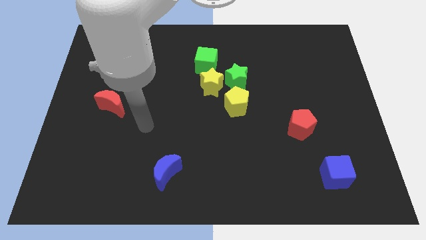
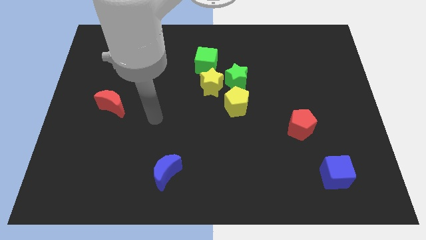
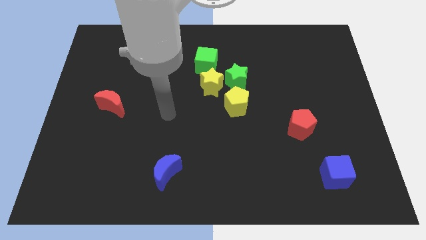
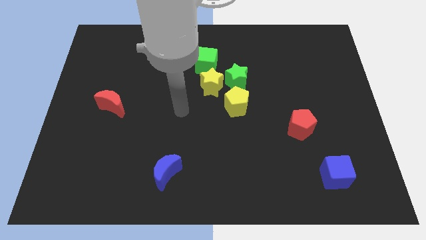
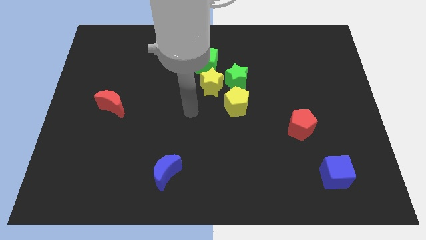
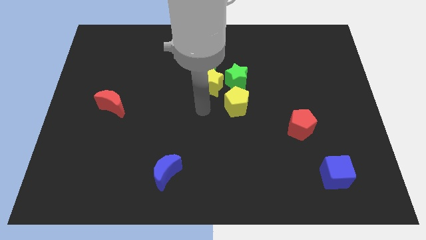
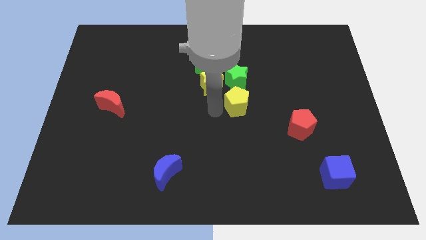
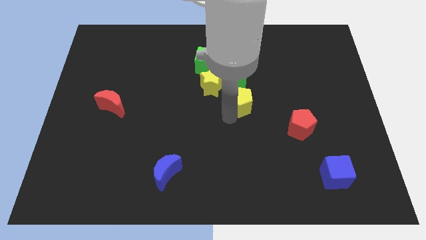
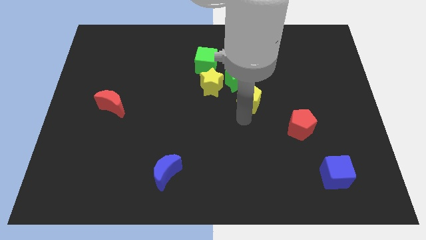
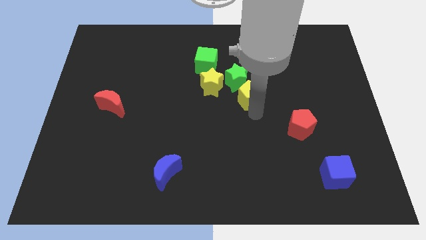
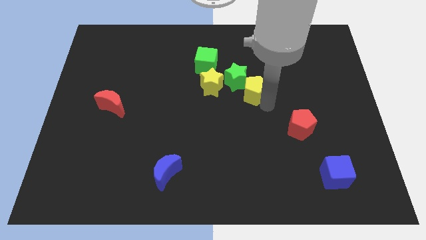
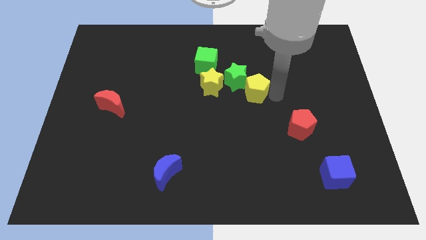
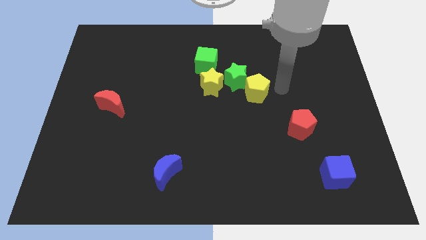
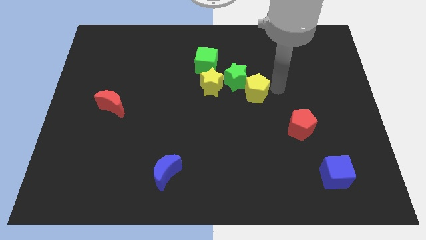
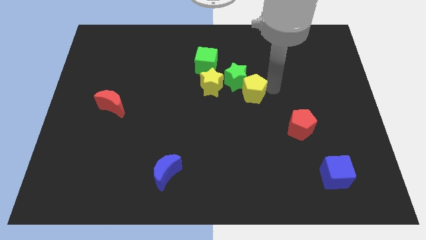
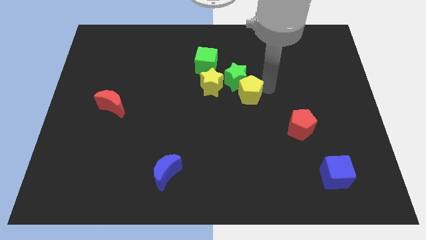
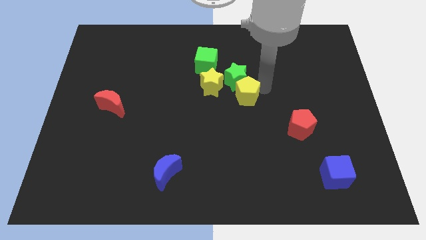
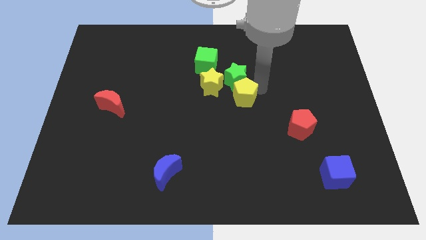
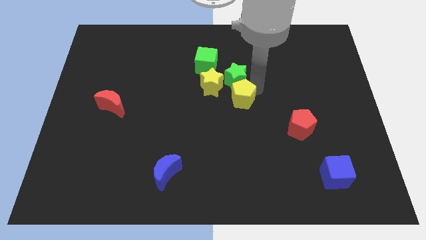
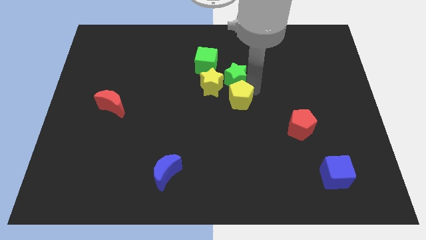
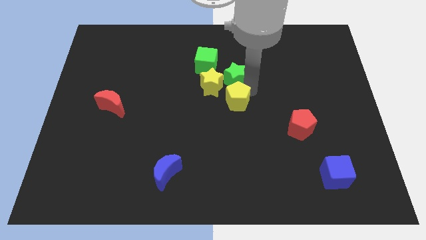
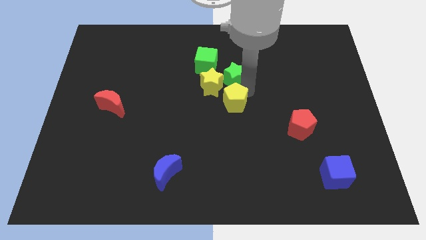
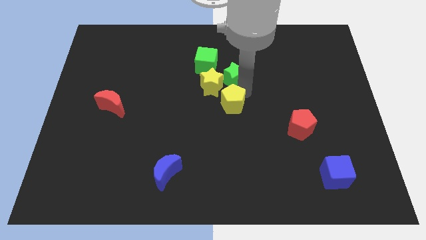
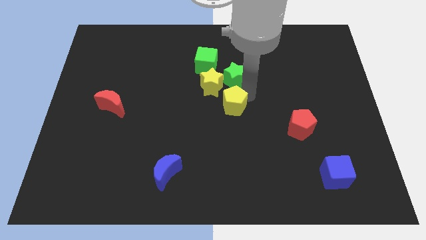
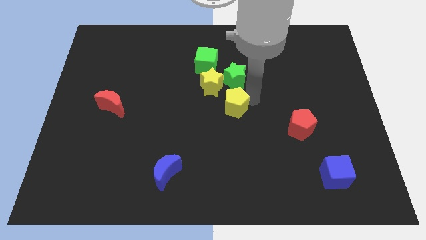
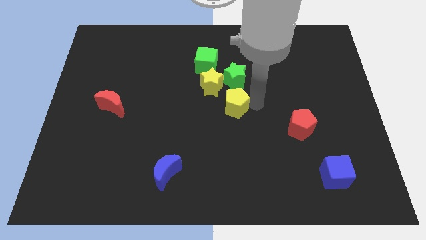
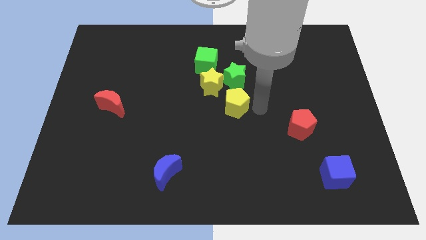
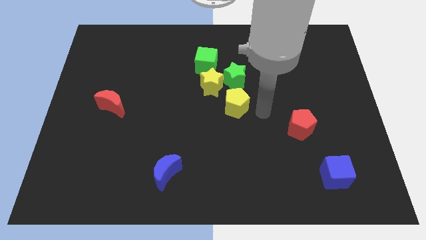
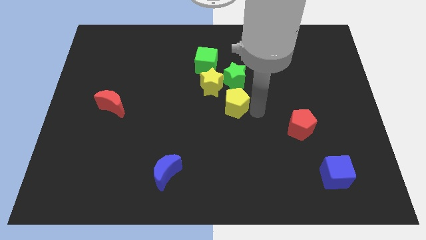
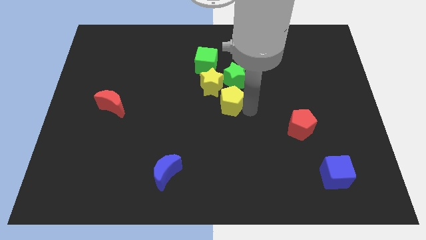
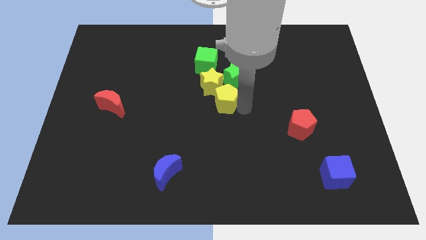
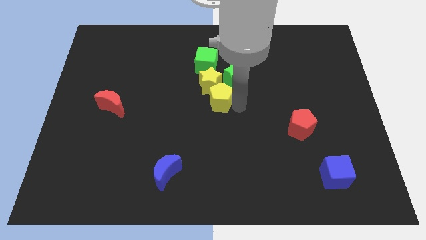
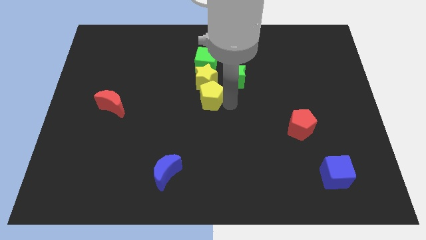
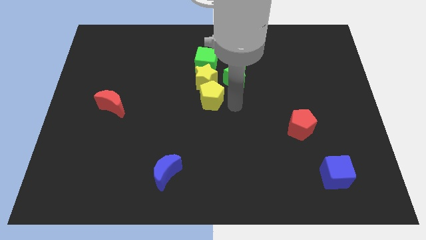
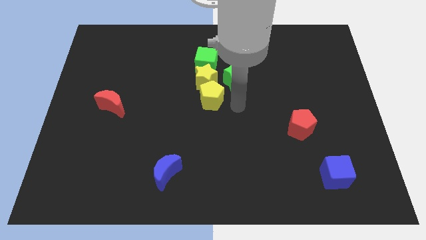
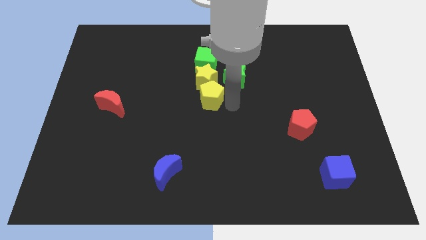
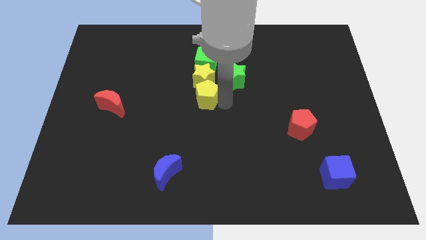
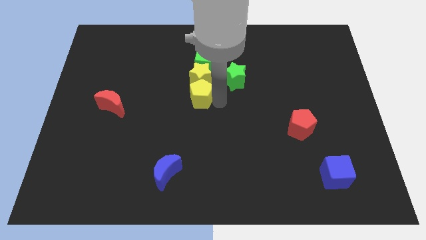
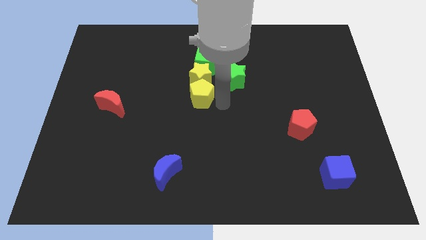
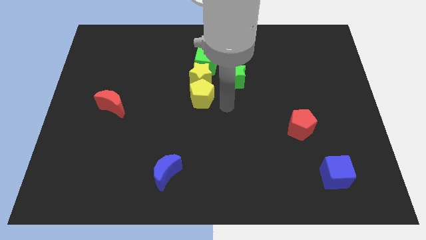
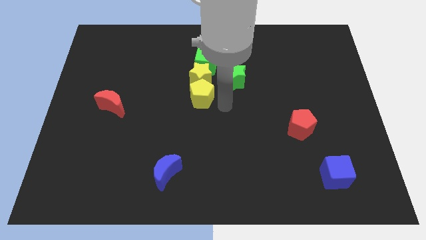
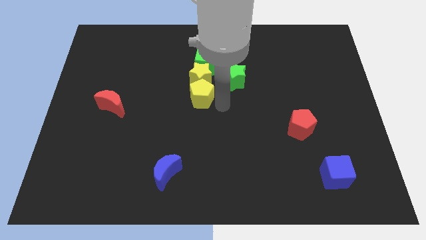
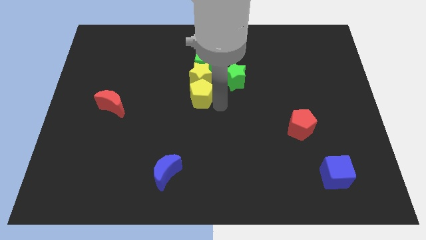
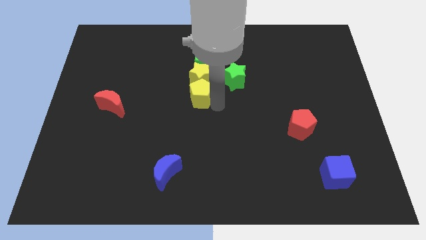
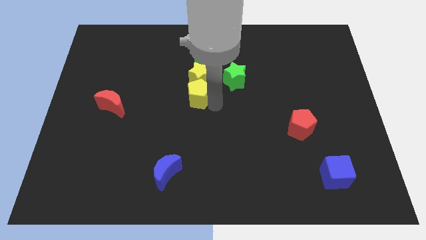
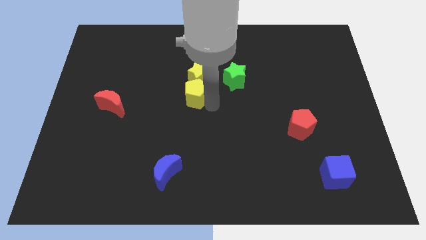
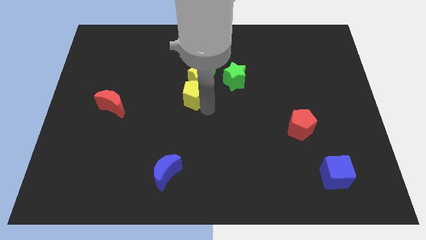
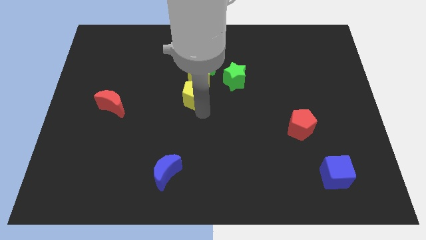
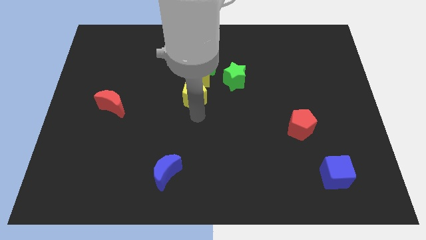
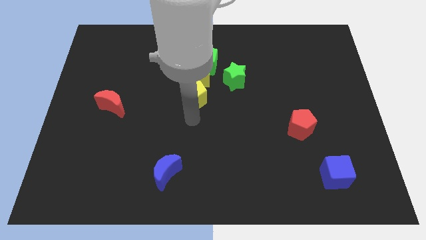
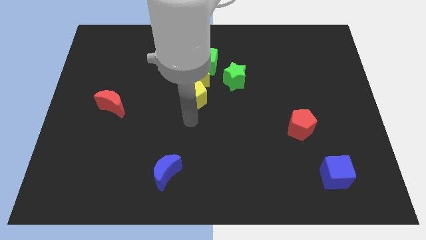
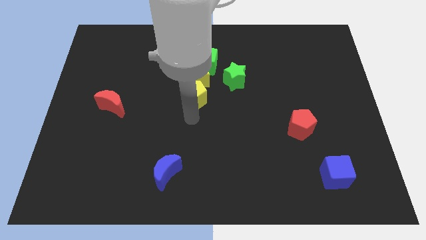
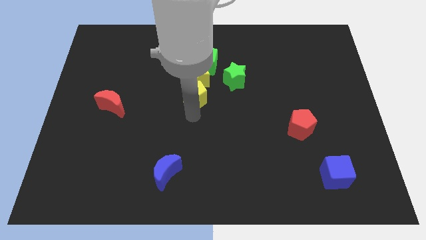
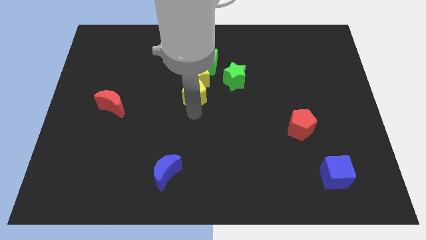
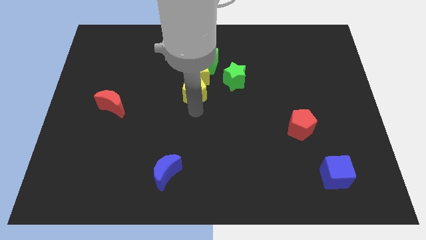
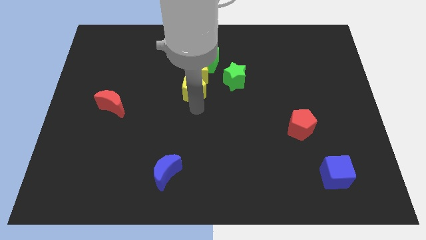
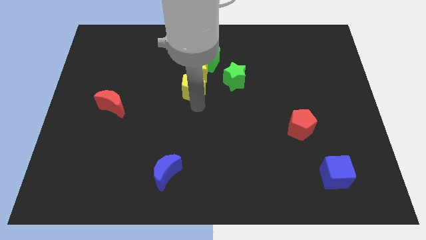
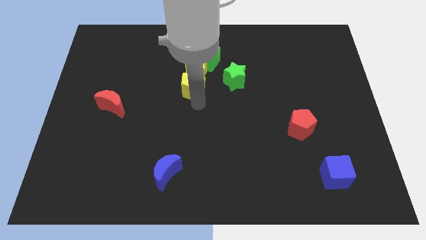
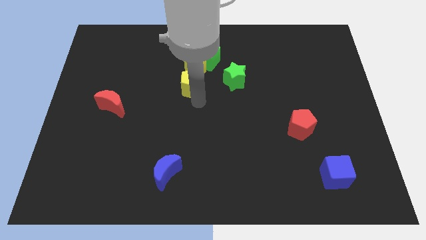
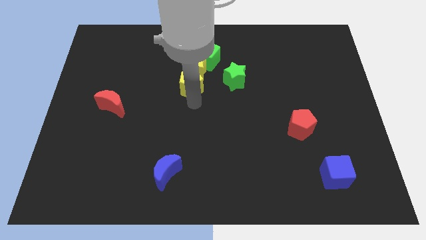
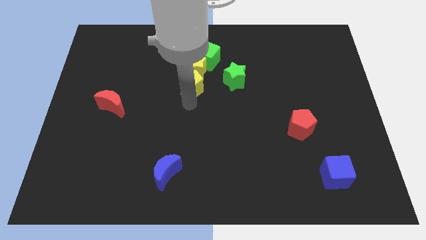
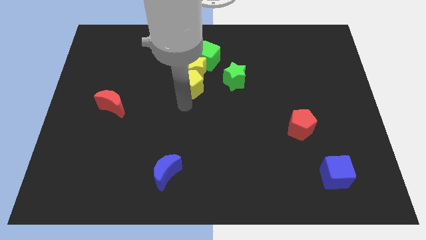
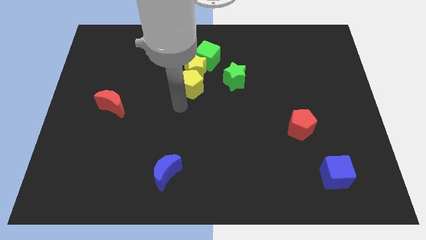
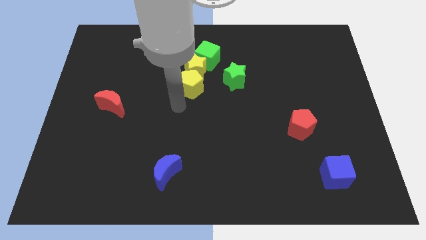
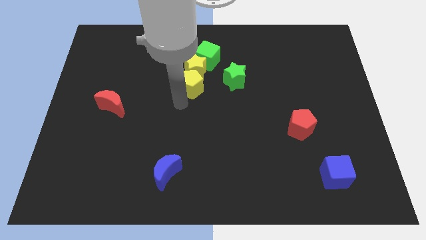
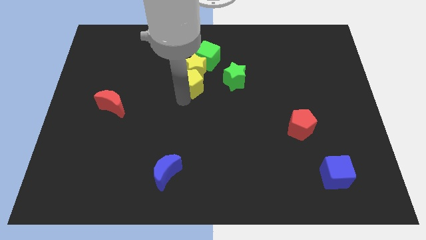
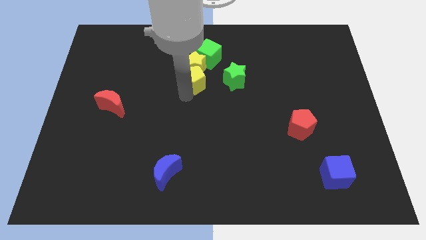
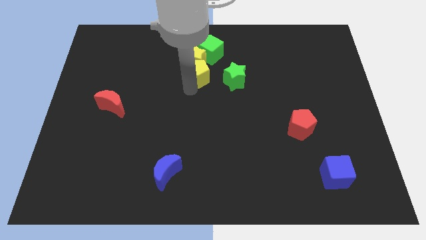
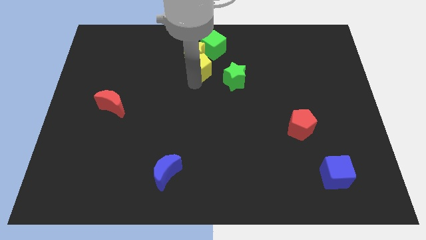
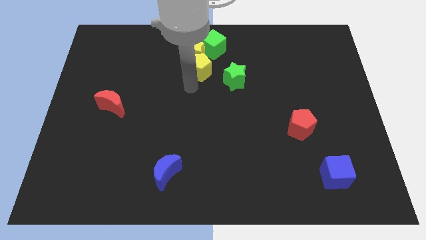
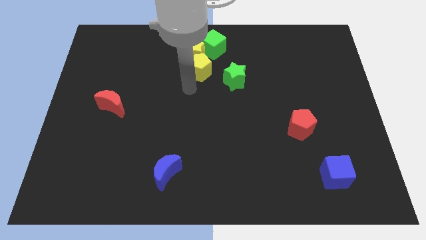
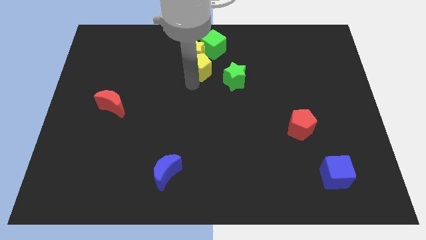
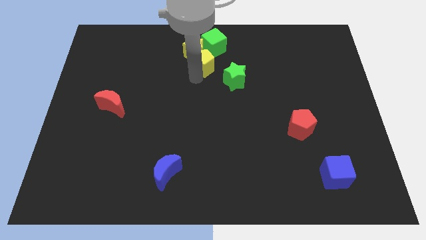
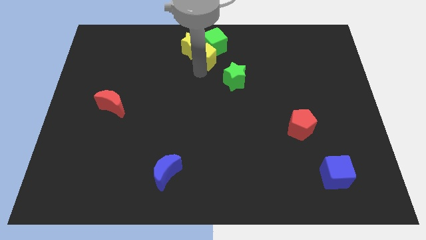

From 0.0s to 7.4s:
push the yellow pentagon next to the green cube
